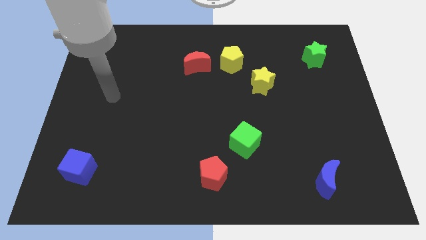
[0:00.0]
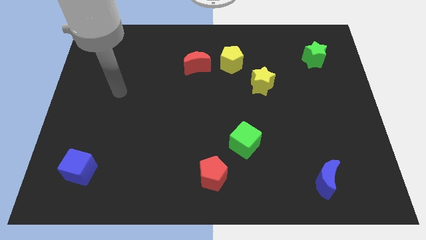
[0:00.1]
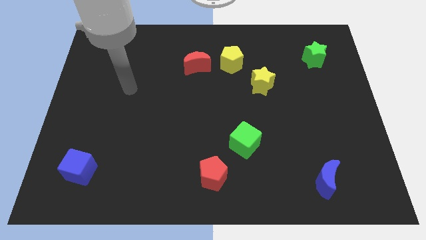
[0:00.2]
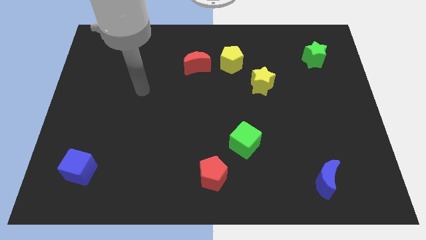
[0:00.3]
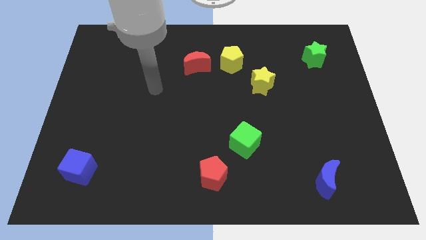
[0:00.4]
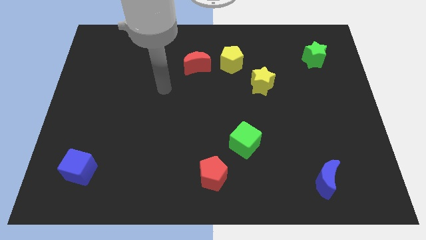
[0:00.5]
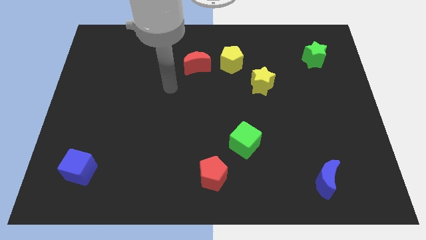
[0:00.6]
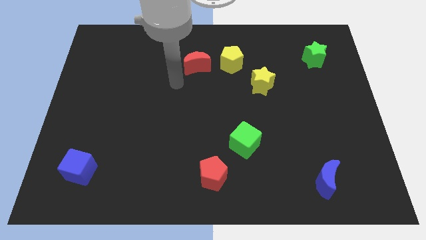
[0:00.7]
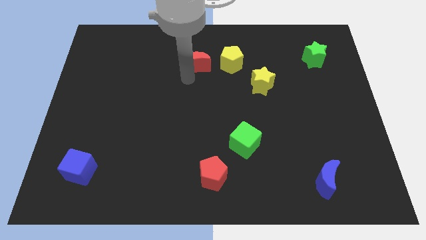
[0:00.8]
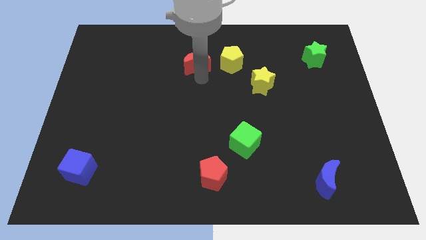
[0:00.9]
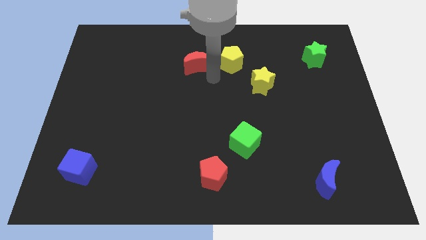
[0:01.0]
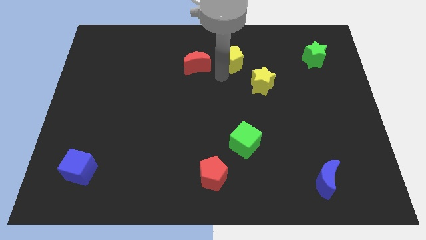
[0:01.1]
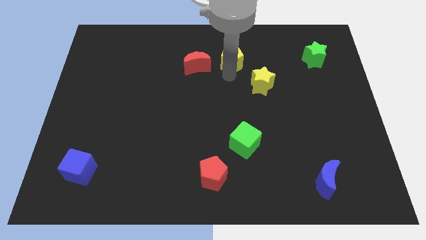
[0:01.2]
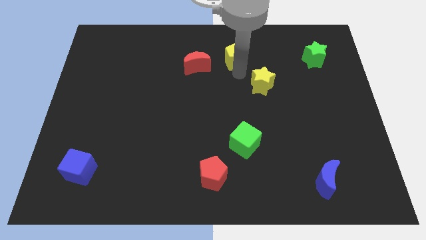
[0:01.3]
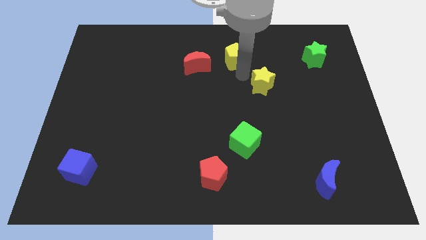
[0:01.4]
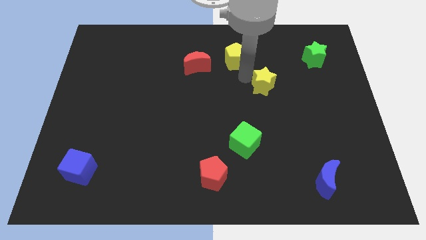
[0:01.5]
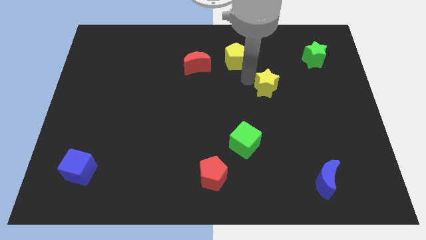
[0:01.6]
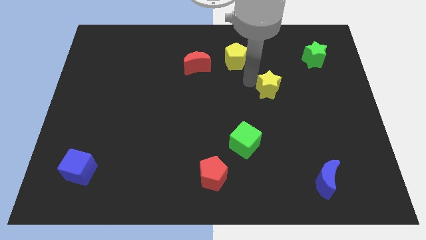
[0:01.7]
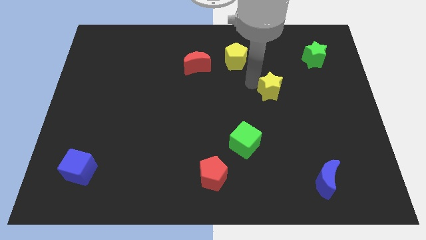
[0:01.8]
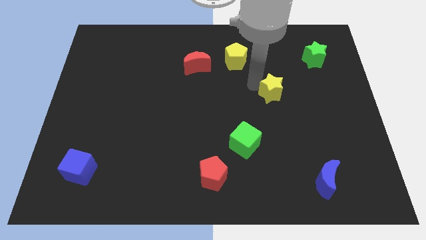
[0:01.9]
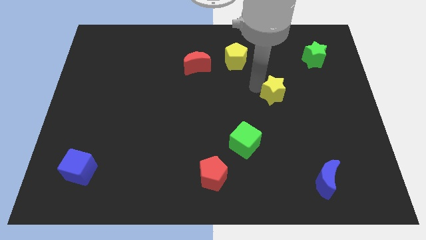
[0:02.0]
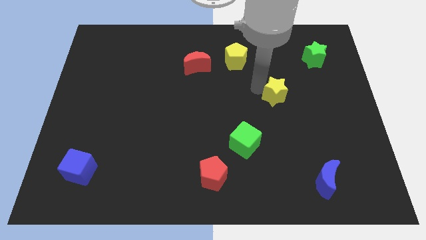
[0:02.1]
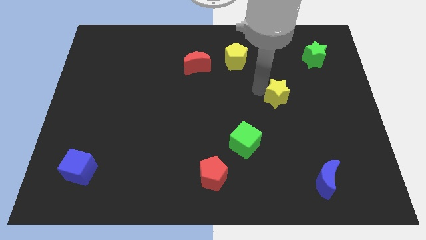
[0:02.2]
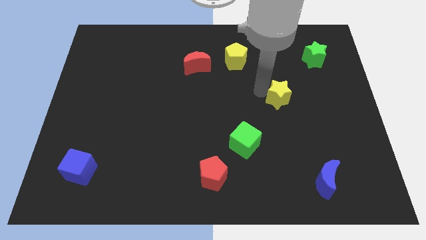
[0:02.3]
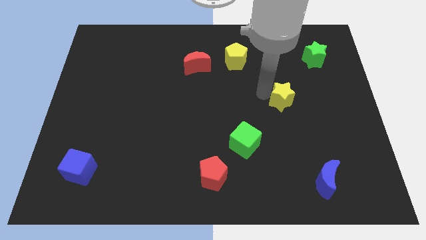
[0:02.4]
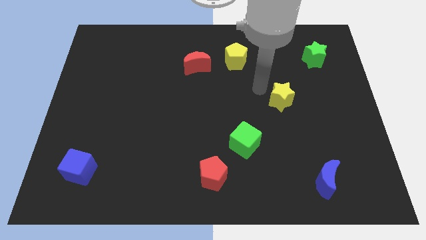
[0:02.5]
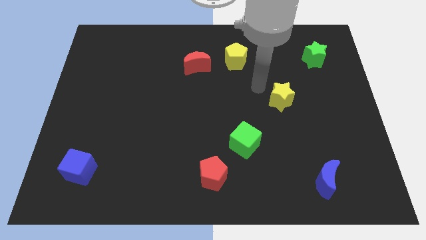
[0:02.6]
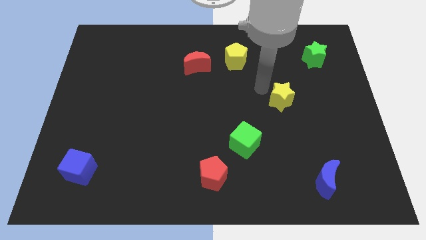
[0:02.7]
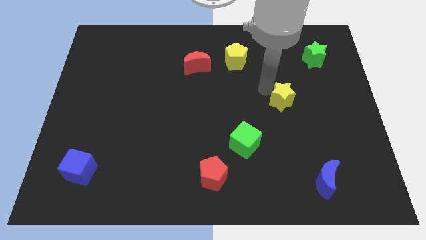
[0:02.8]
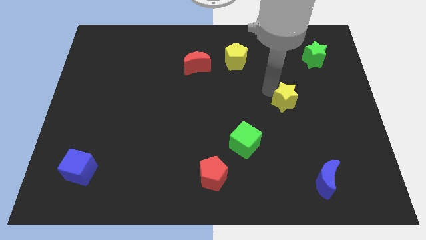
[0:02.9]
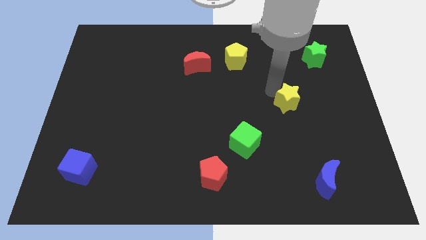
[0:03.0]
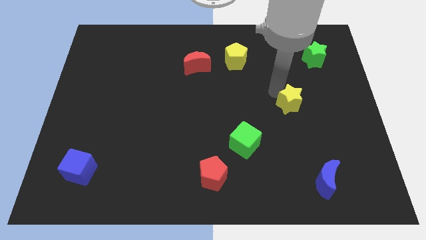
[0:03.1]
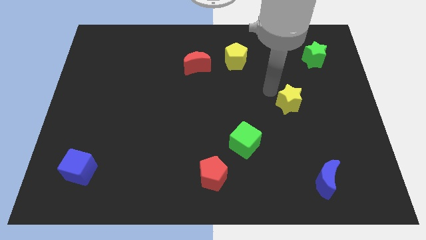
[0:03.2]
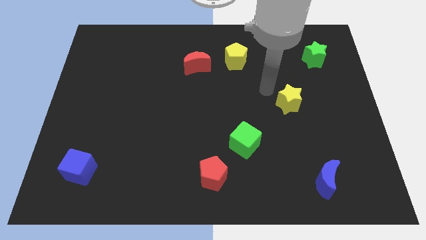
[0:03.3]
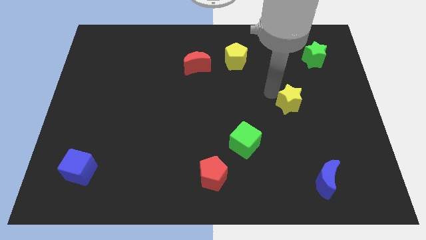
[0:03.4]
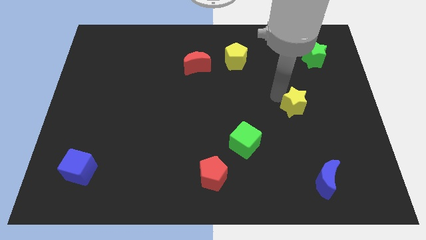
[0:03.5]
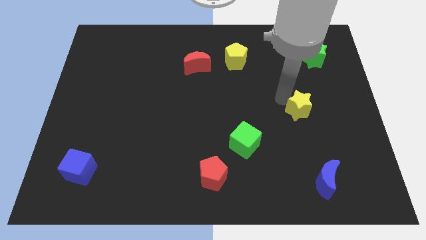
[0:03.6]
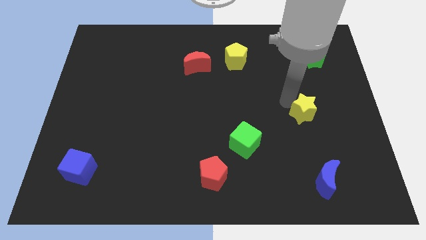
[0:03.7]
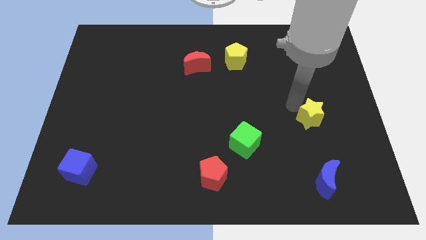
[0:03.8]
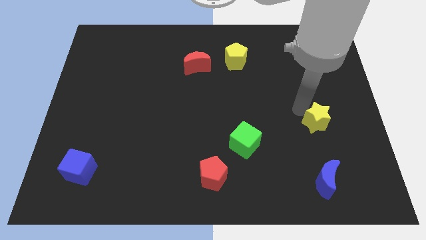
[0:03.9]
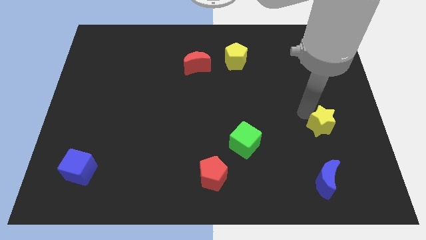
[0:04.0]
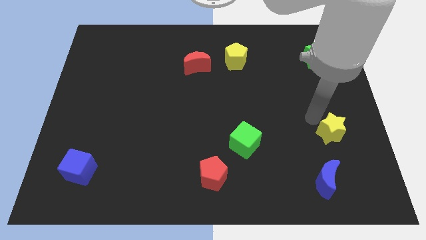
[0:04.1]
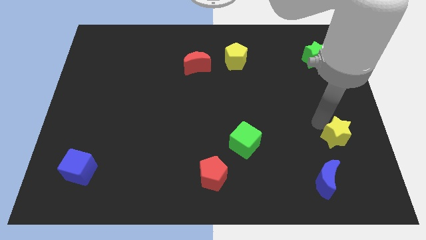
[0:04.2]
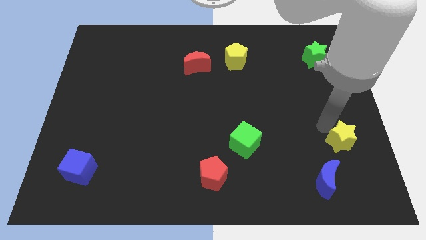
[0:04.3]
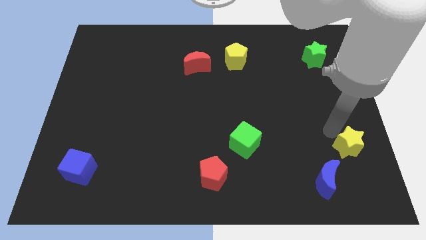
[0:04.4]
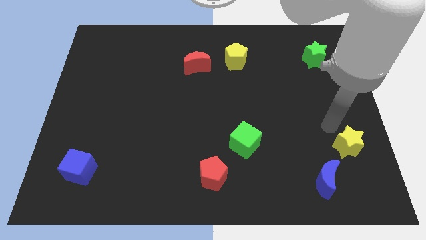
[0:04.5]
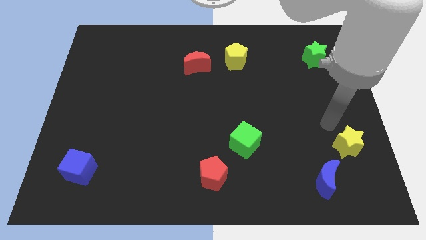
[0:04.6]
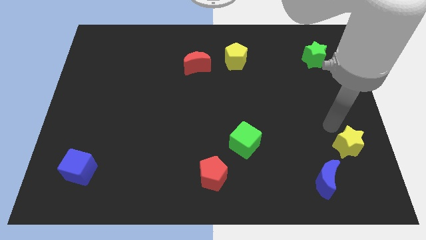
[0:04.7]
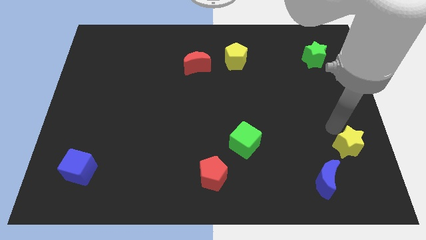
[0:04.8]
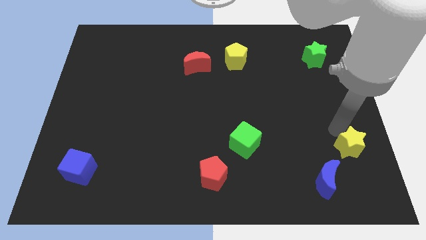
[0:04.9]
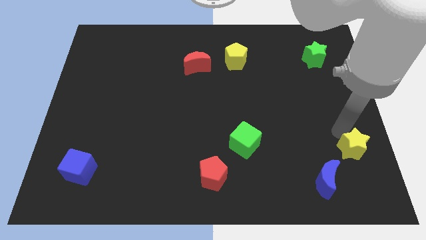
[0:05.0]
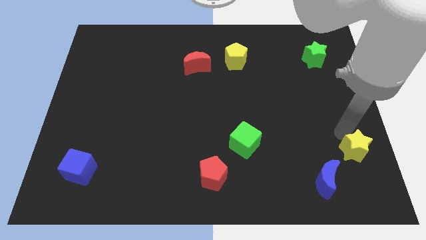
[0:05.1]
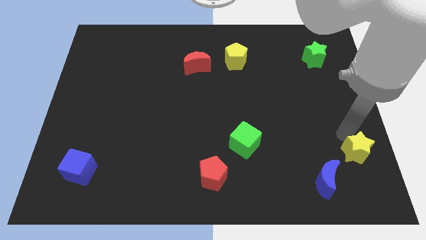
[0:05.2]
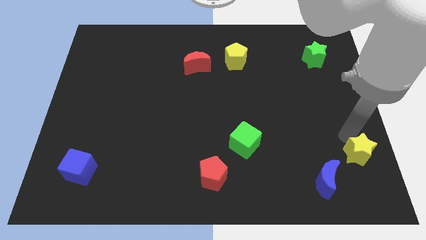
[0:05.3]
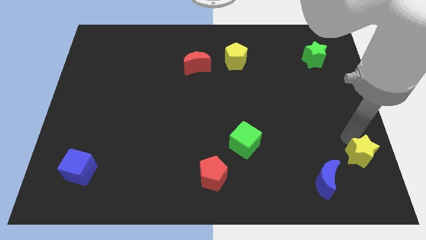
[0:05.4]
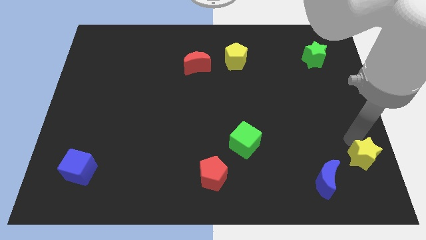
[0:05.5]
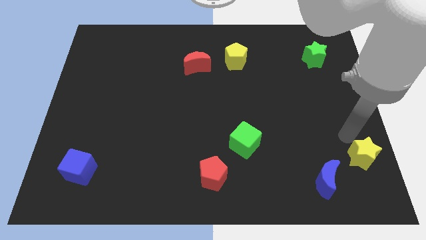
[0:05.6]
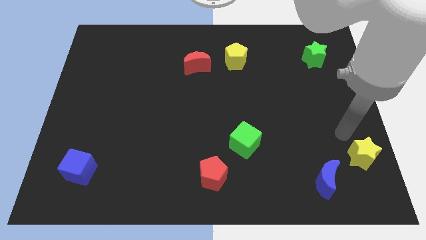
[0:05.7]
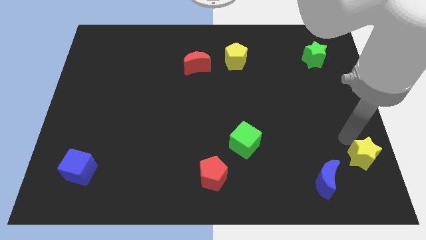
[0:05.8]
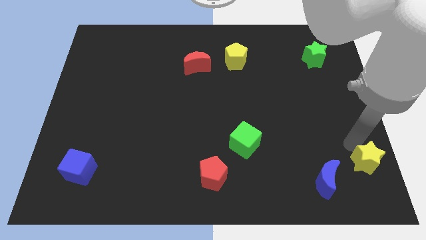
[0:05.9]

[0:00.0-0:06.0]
slide the yellow star to the lower right corner

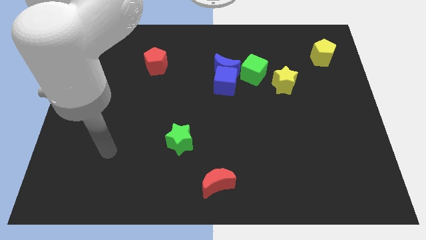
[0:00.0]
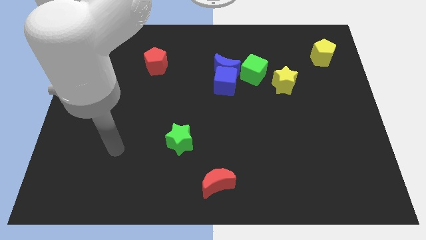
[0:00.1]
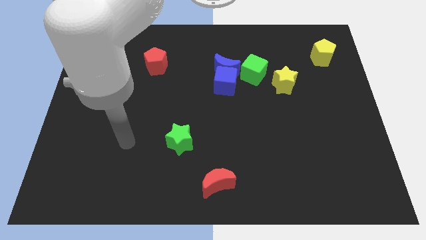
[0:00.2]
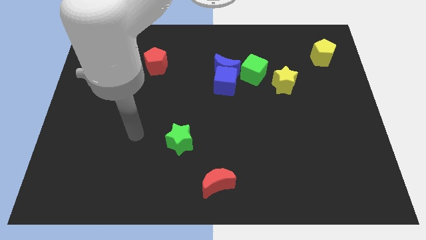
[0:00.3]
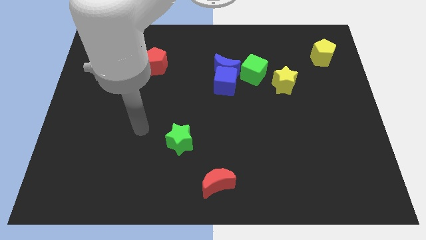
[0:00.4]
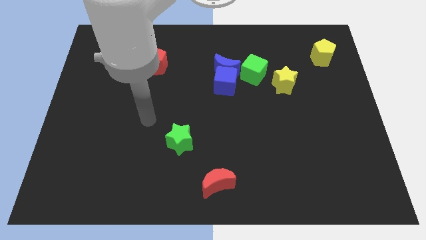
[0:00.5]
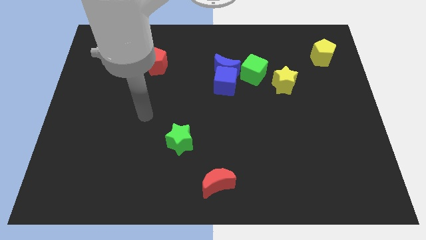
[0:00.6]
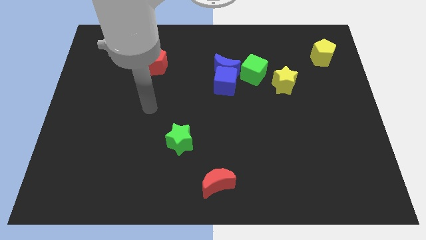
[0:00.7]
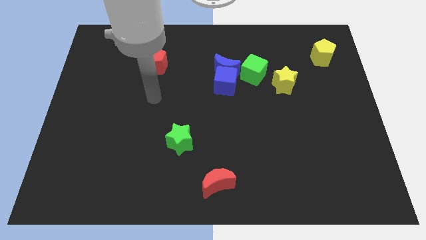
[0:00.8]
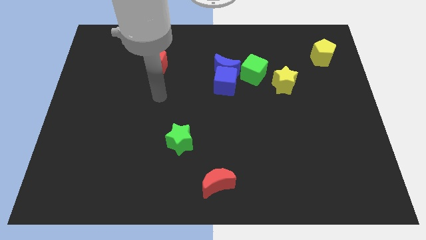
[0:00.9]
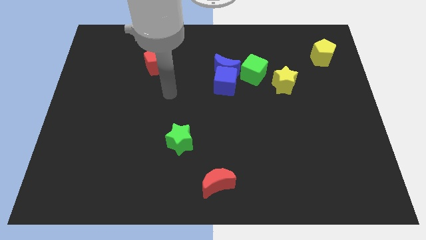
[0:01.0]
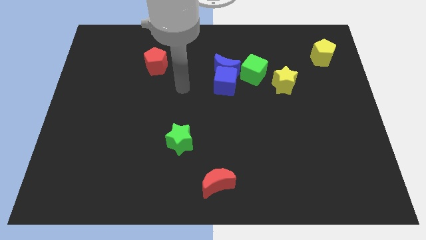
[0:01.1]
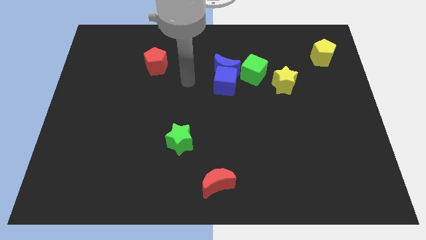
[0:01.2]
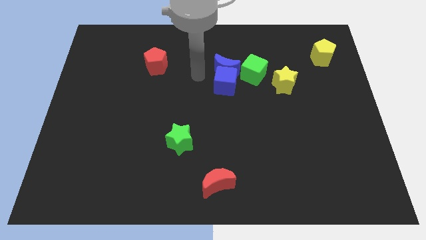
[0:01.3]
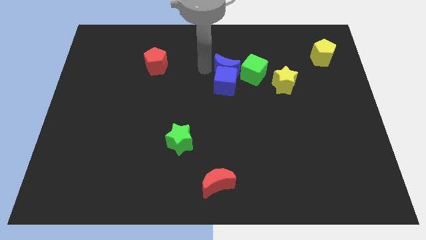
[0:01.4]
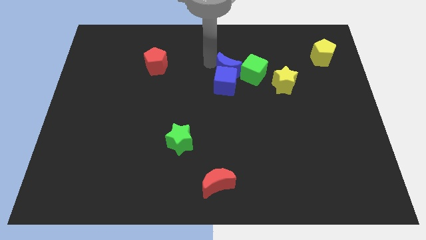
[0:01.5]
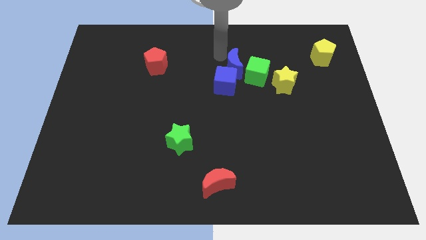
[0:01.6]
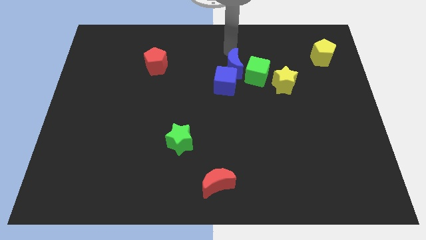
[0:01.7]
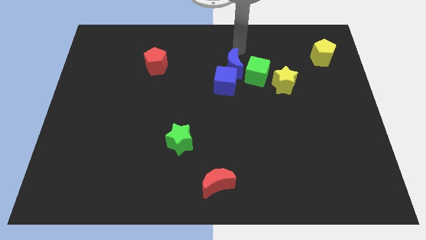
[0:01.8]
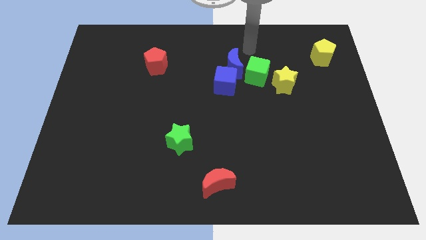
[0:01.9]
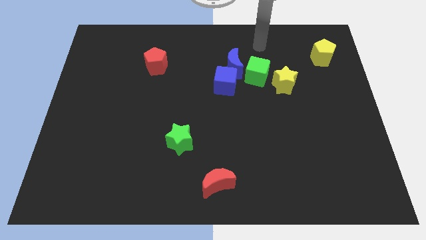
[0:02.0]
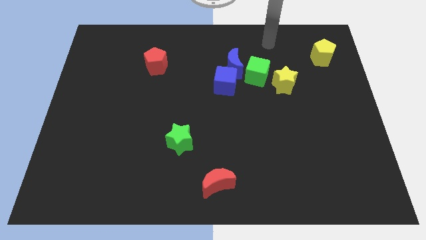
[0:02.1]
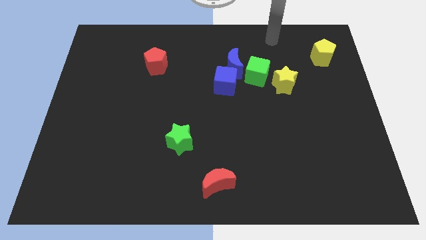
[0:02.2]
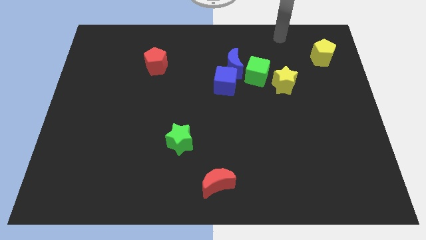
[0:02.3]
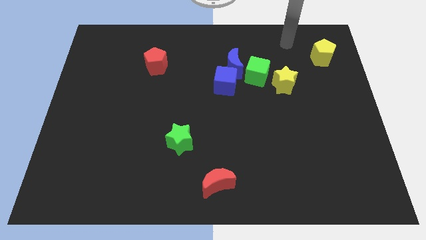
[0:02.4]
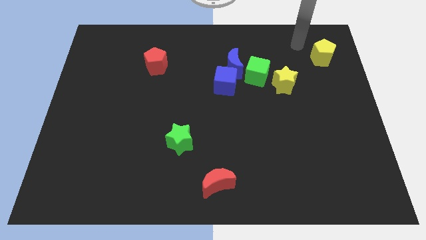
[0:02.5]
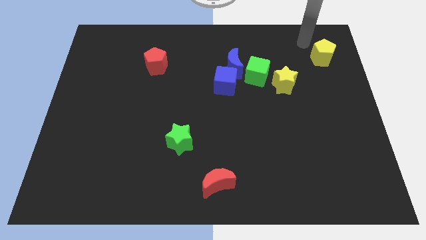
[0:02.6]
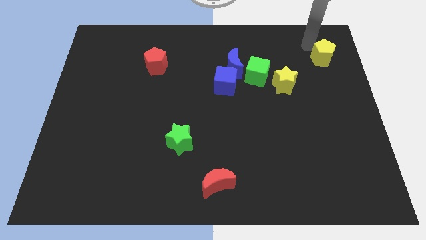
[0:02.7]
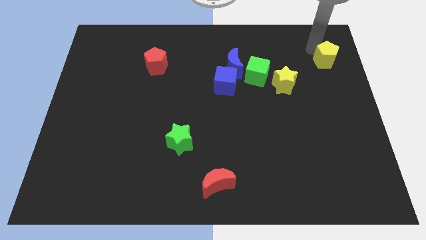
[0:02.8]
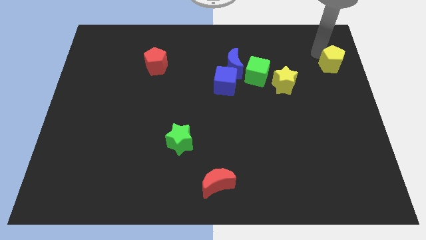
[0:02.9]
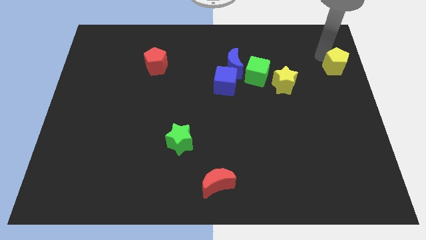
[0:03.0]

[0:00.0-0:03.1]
move the yellow pentagon to the right side
